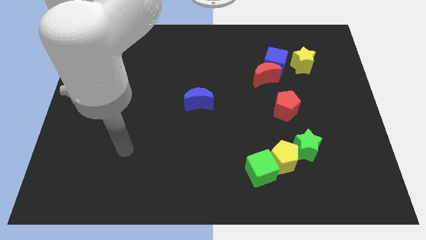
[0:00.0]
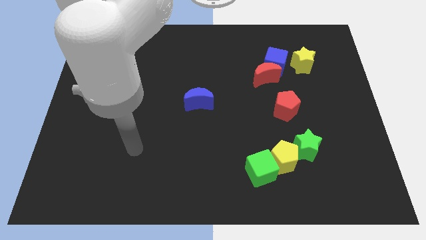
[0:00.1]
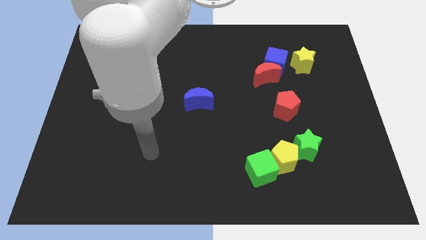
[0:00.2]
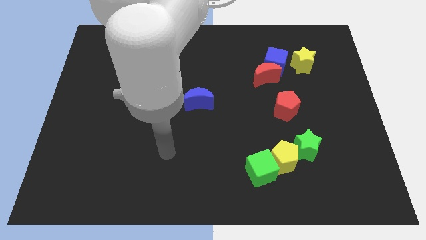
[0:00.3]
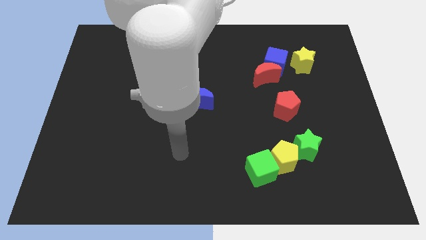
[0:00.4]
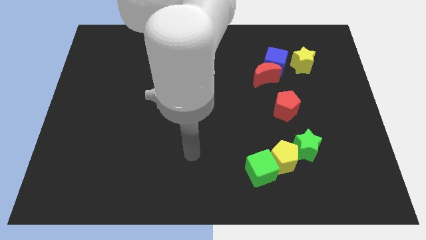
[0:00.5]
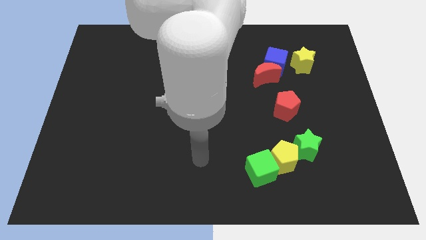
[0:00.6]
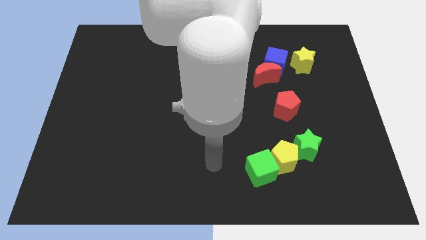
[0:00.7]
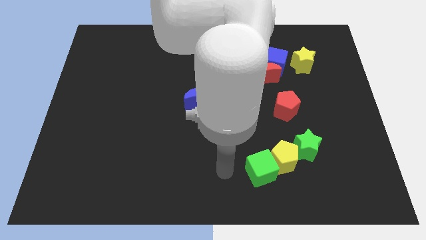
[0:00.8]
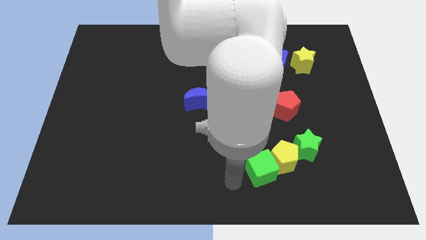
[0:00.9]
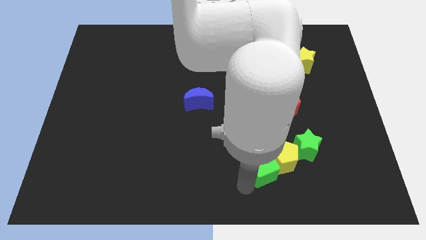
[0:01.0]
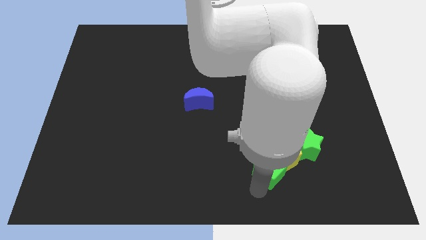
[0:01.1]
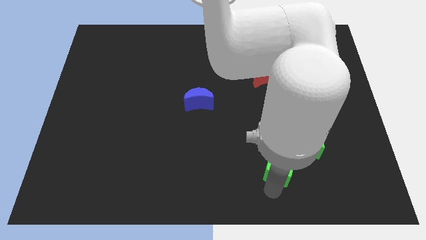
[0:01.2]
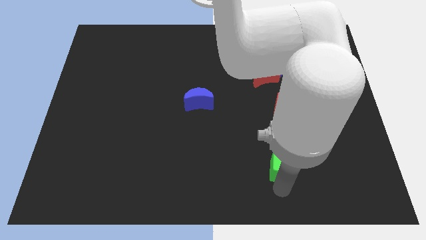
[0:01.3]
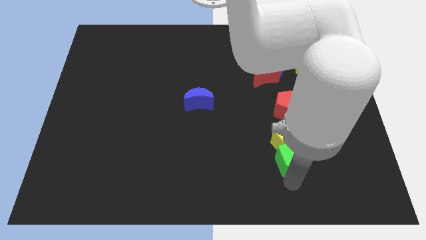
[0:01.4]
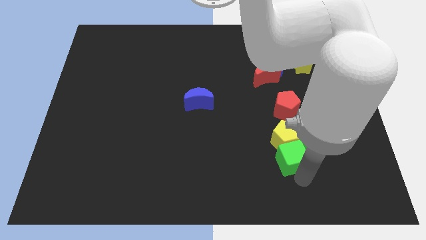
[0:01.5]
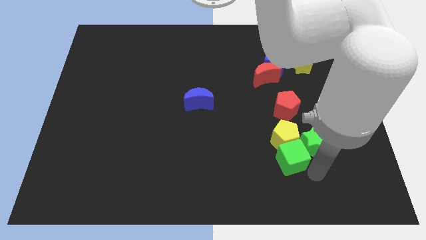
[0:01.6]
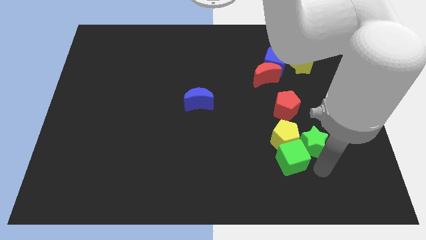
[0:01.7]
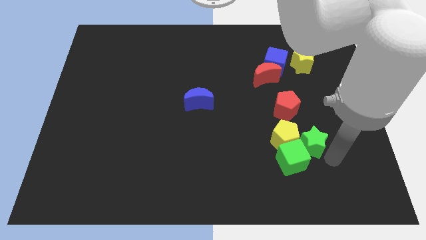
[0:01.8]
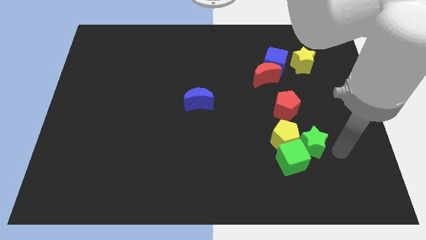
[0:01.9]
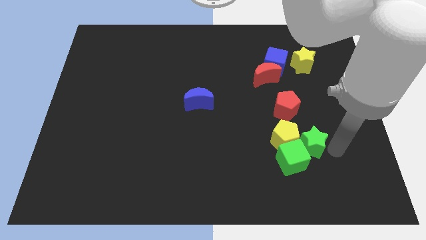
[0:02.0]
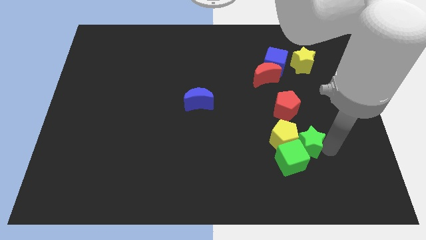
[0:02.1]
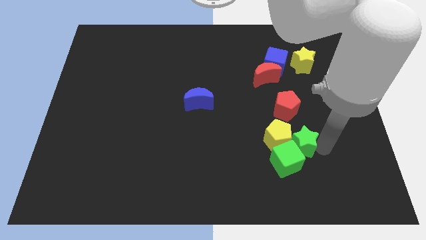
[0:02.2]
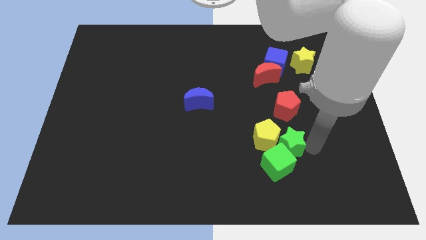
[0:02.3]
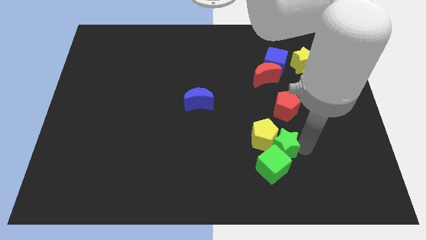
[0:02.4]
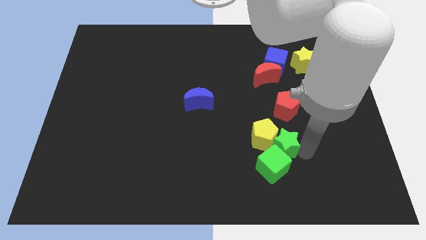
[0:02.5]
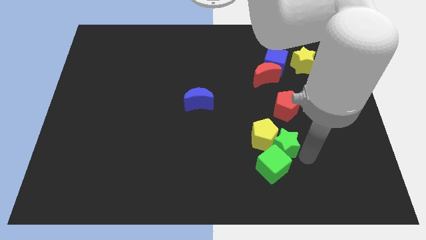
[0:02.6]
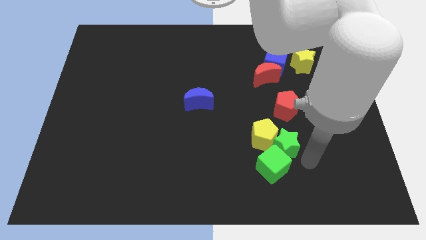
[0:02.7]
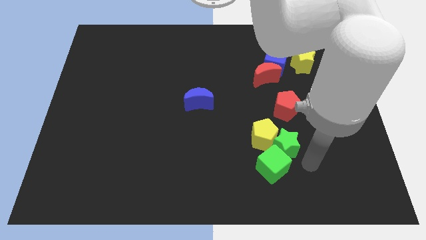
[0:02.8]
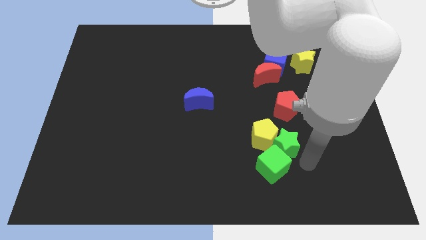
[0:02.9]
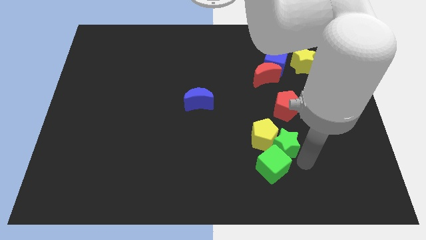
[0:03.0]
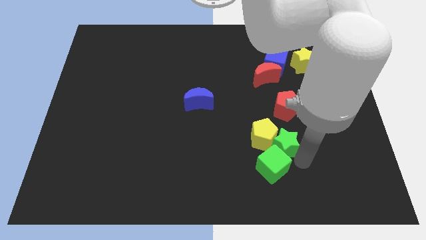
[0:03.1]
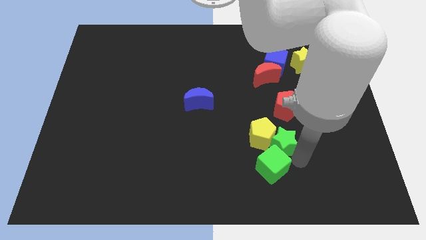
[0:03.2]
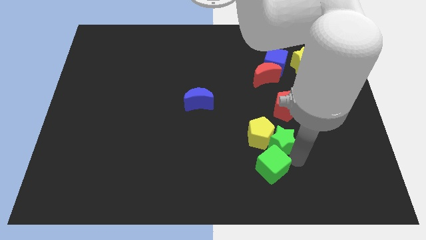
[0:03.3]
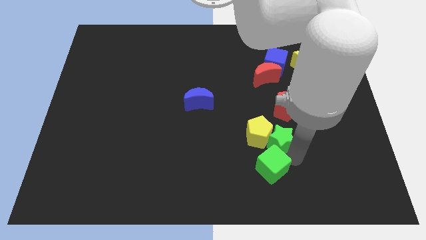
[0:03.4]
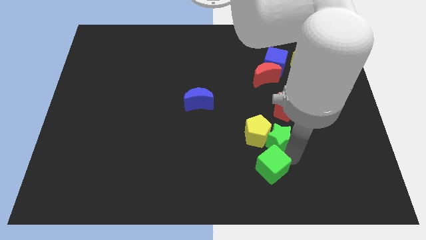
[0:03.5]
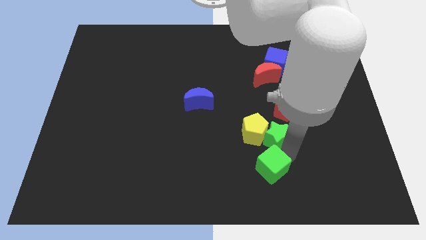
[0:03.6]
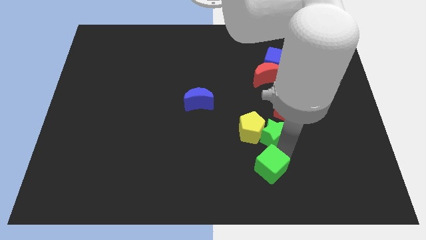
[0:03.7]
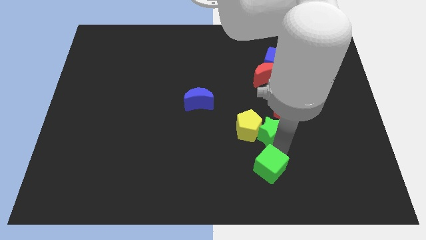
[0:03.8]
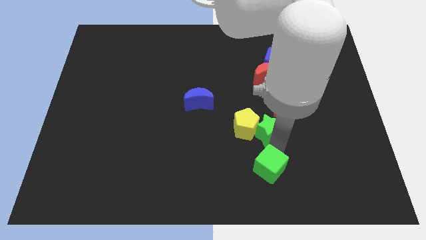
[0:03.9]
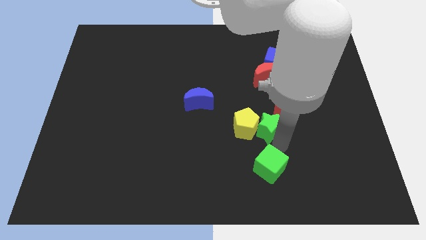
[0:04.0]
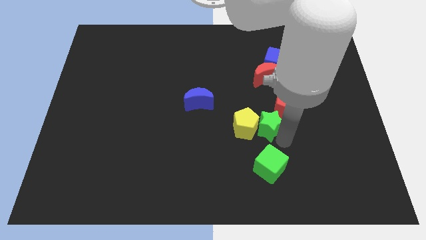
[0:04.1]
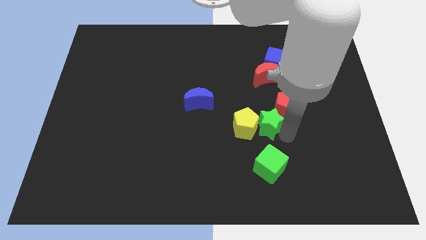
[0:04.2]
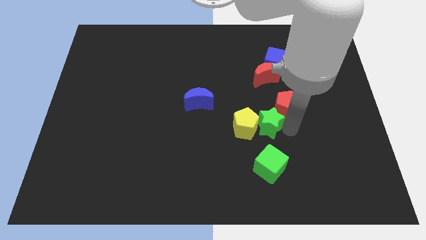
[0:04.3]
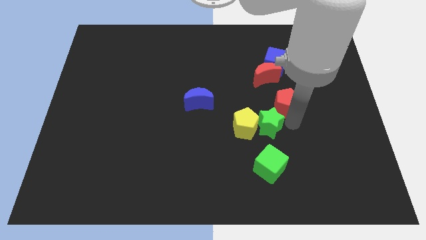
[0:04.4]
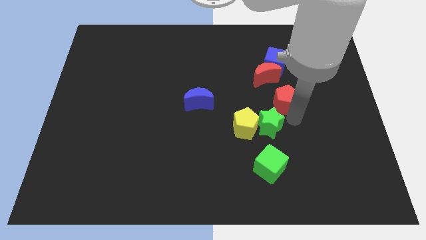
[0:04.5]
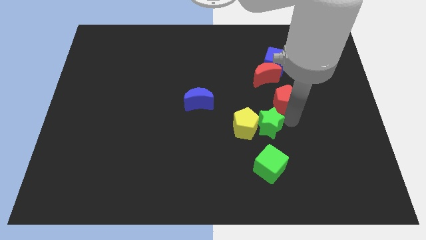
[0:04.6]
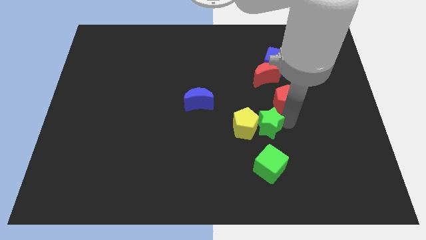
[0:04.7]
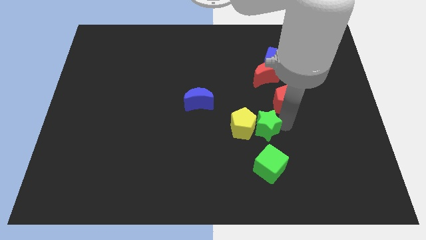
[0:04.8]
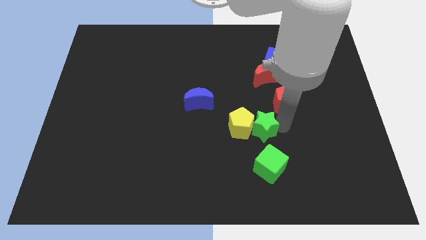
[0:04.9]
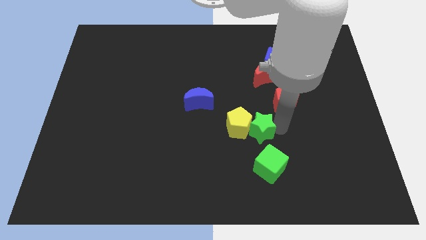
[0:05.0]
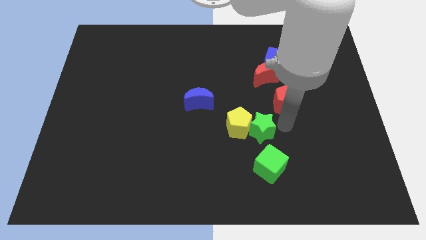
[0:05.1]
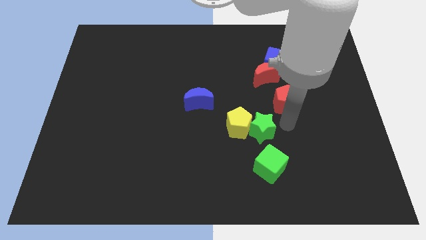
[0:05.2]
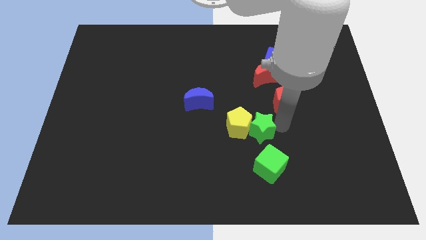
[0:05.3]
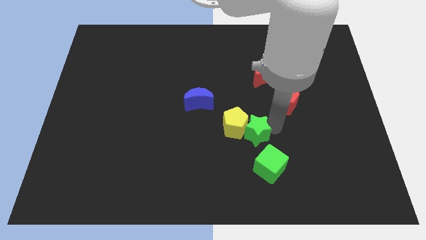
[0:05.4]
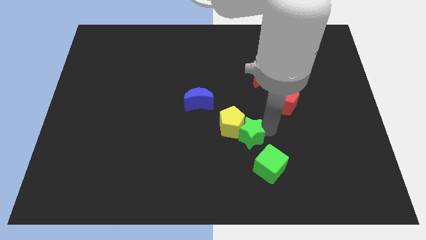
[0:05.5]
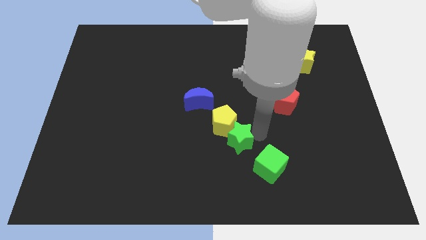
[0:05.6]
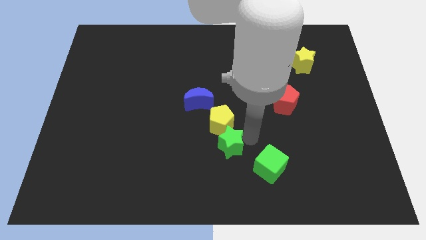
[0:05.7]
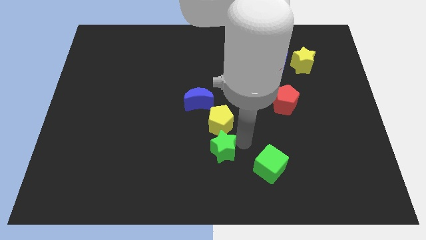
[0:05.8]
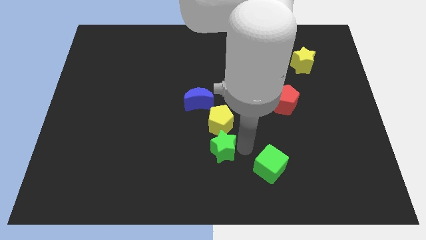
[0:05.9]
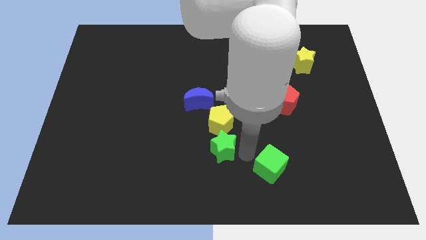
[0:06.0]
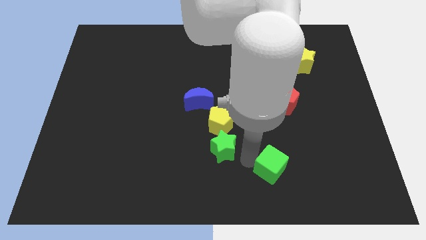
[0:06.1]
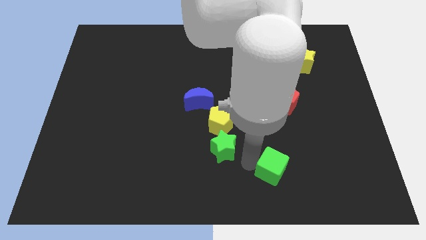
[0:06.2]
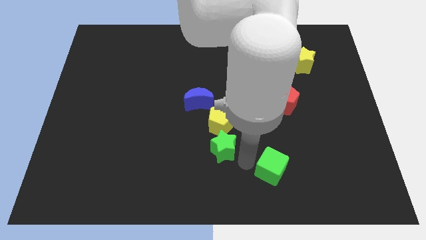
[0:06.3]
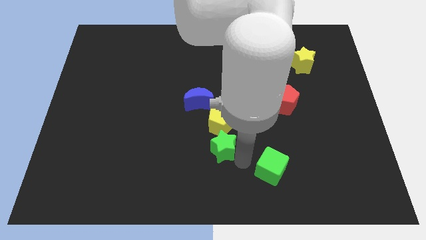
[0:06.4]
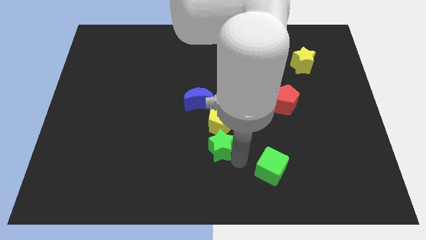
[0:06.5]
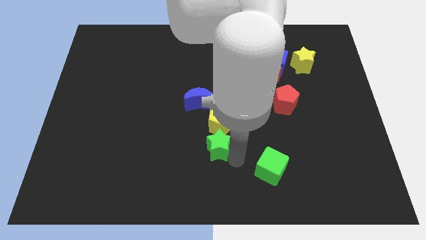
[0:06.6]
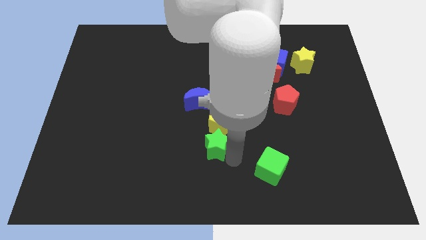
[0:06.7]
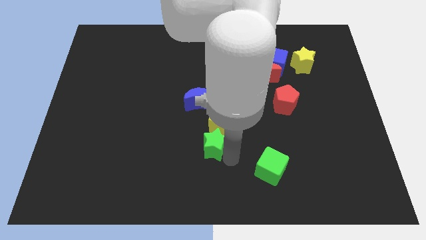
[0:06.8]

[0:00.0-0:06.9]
move the green star left

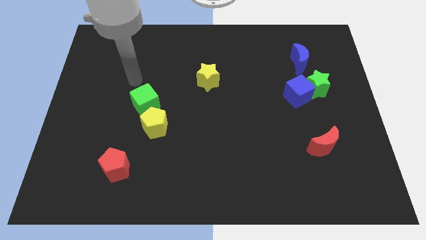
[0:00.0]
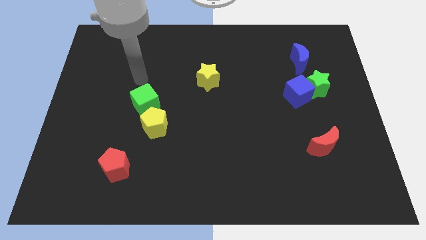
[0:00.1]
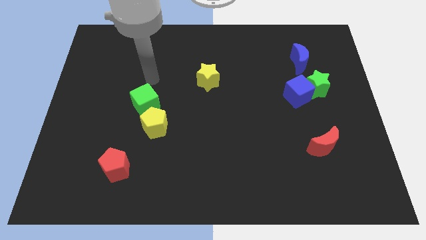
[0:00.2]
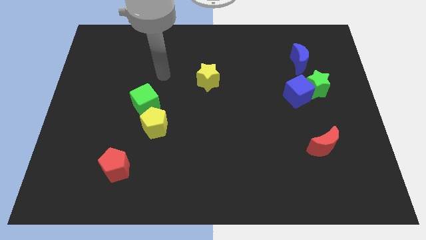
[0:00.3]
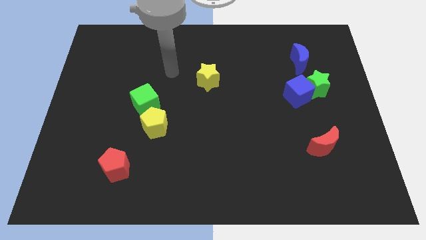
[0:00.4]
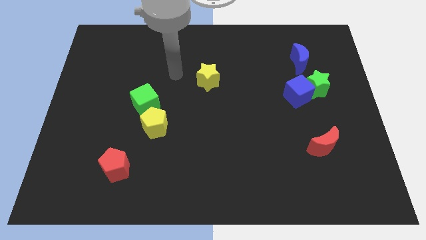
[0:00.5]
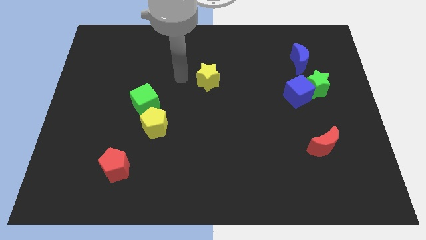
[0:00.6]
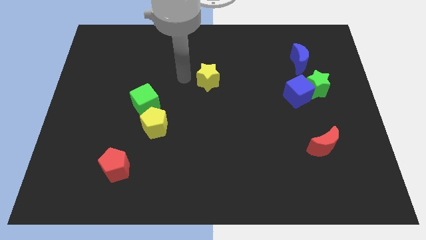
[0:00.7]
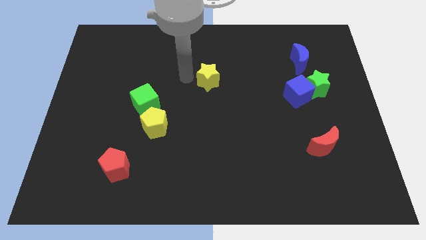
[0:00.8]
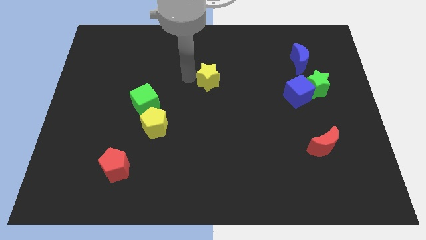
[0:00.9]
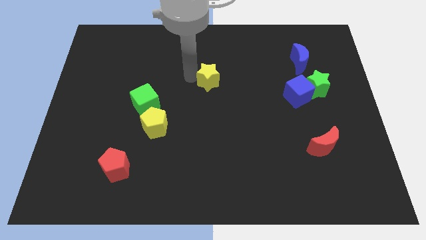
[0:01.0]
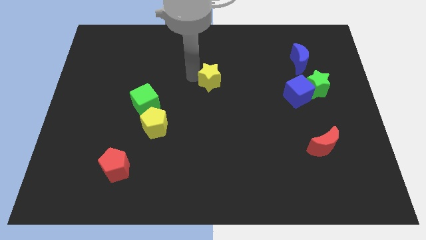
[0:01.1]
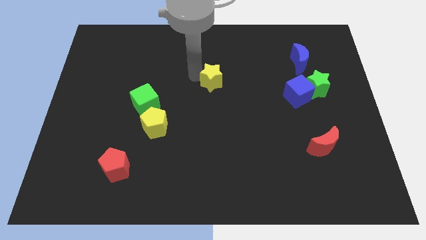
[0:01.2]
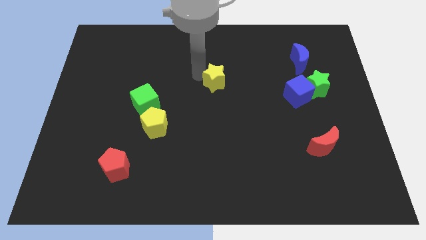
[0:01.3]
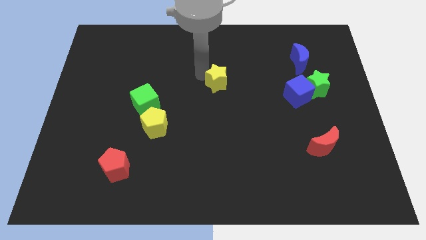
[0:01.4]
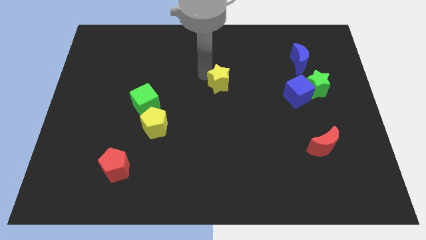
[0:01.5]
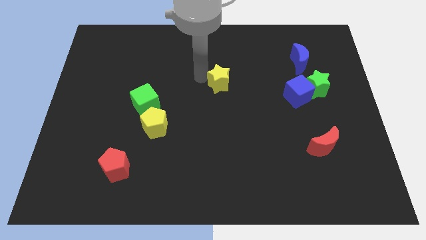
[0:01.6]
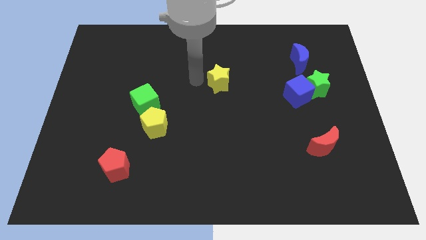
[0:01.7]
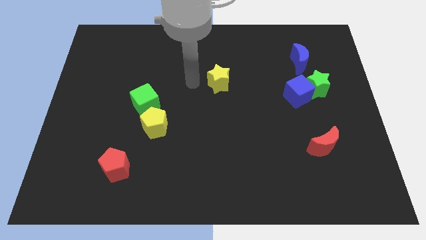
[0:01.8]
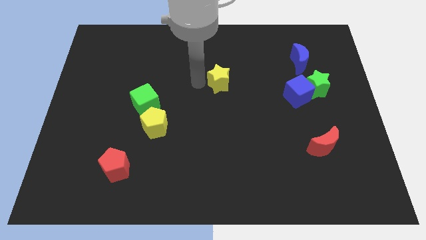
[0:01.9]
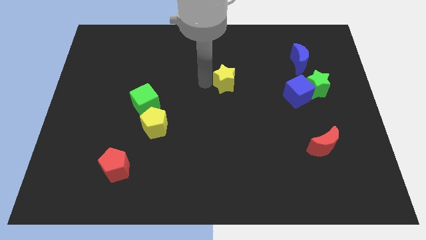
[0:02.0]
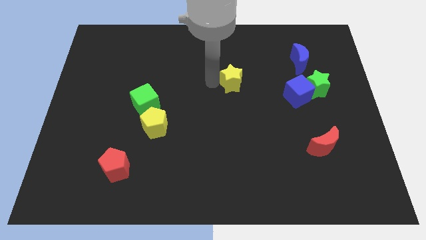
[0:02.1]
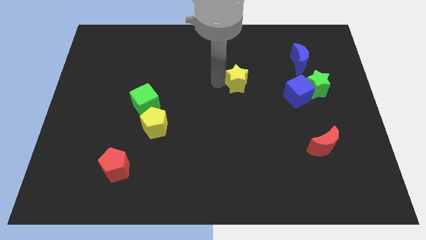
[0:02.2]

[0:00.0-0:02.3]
slightly slide the yellow star to the right
